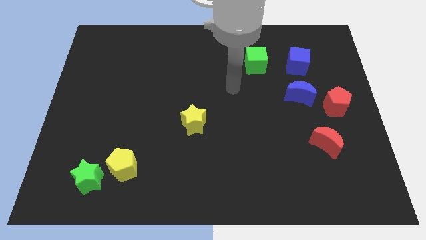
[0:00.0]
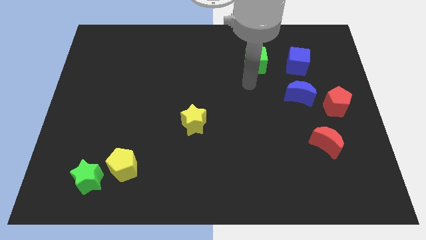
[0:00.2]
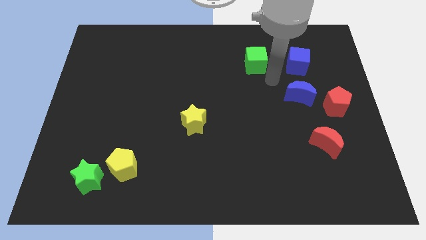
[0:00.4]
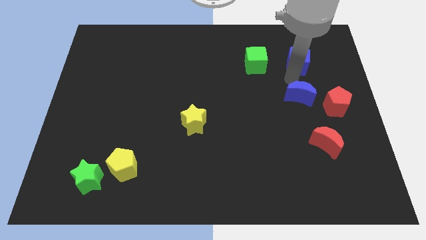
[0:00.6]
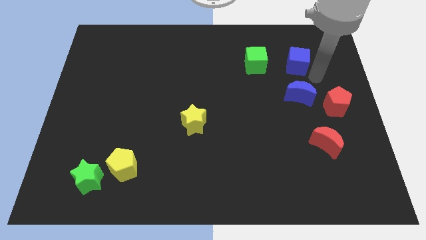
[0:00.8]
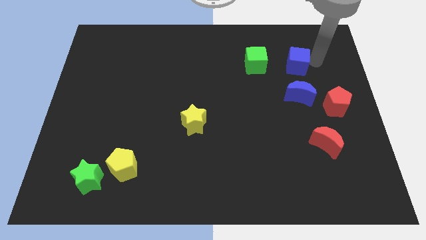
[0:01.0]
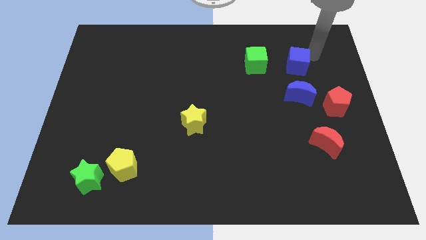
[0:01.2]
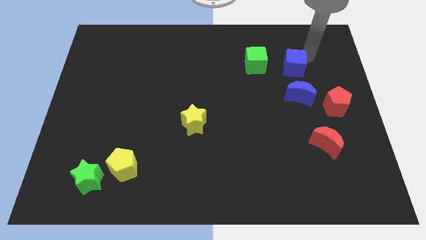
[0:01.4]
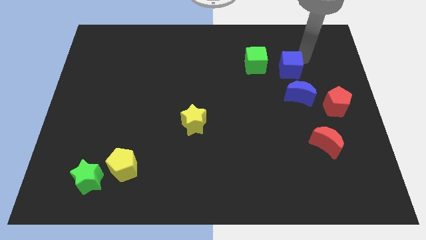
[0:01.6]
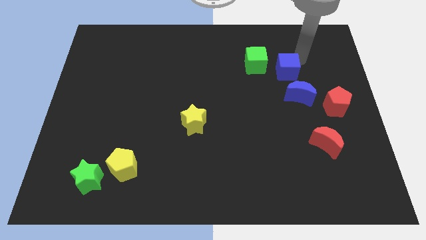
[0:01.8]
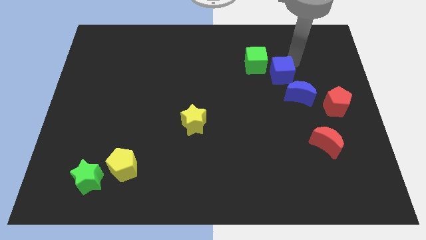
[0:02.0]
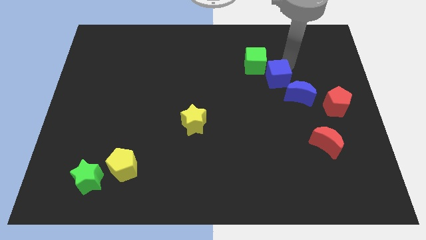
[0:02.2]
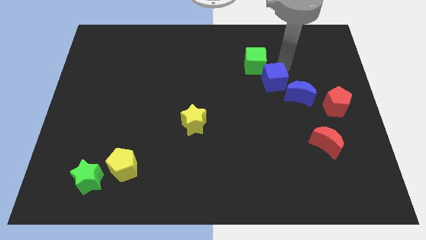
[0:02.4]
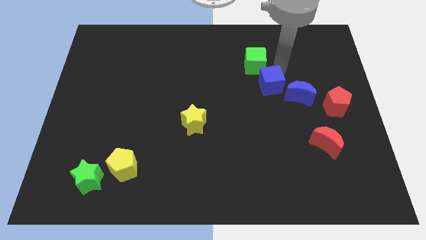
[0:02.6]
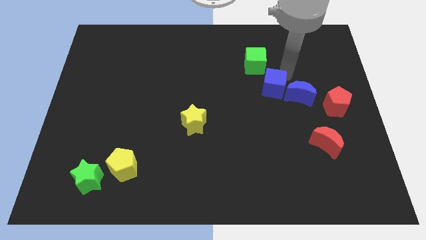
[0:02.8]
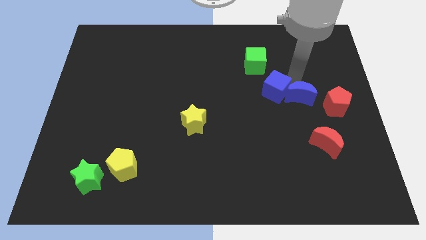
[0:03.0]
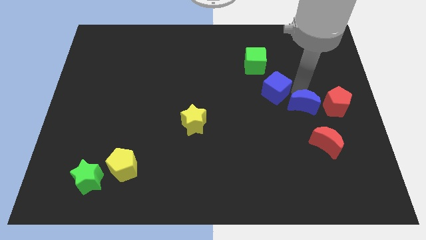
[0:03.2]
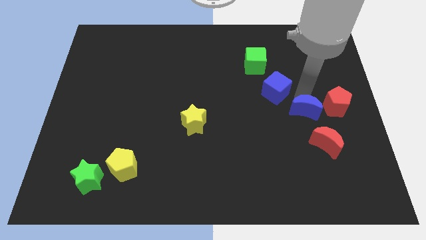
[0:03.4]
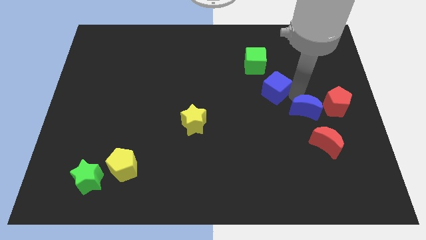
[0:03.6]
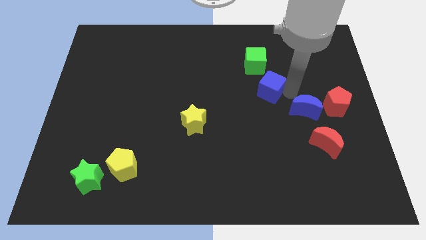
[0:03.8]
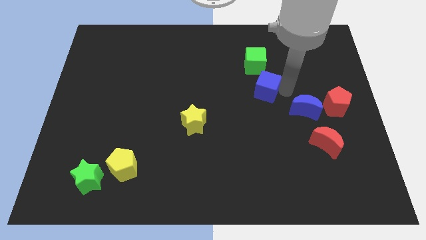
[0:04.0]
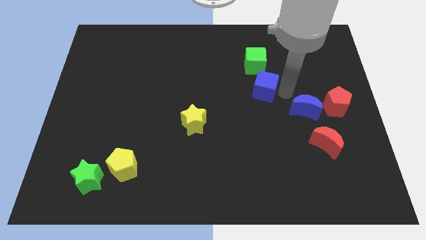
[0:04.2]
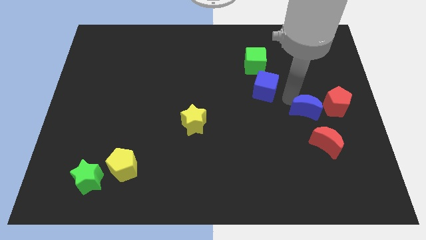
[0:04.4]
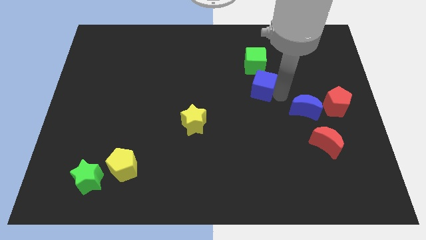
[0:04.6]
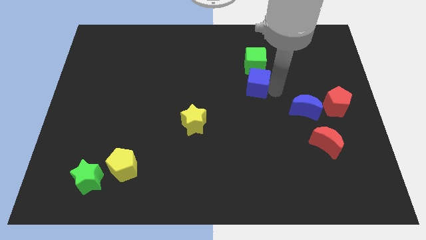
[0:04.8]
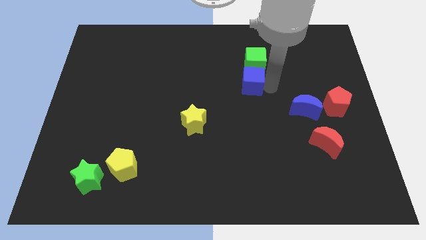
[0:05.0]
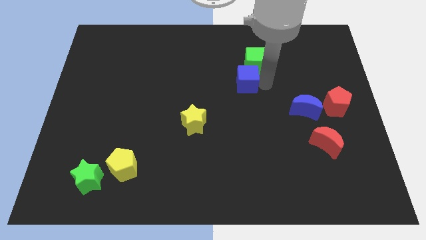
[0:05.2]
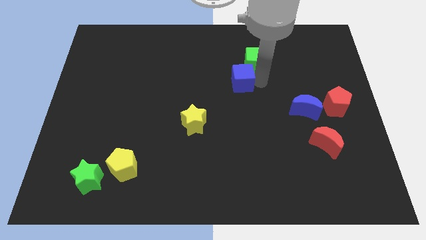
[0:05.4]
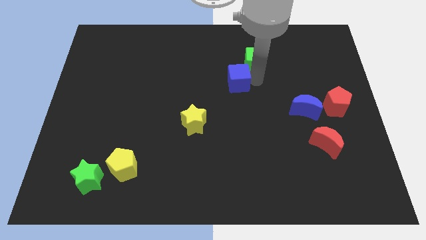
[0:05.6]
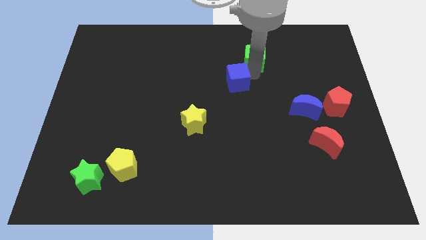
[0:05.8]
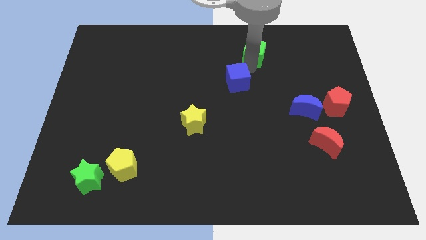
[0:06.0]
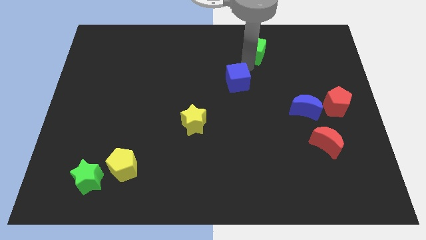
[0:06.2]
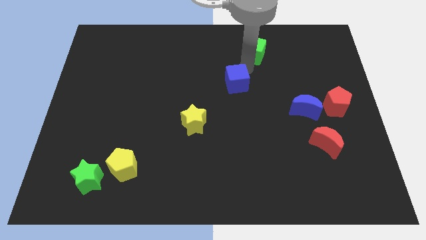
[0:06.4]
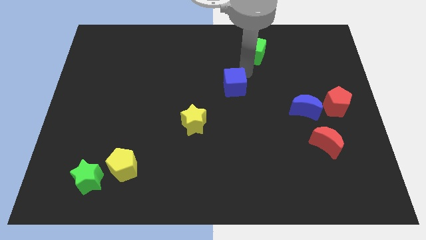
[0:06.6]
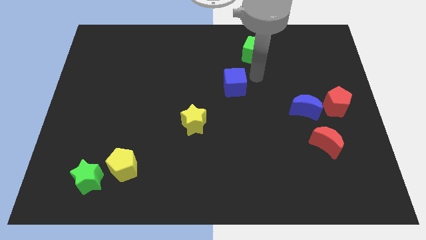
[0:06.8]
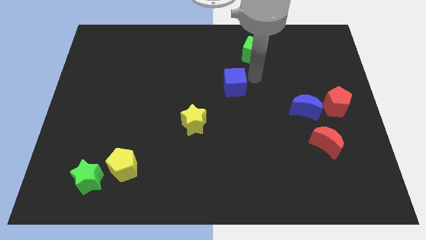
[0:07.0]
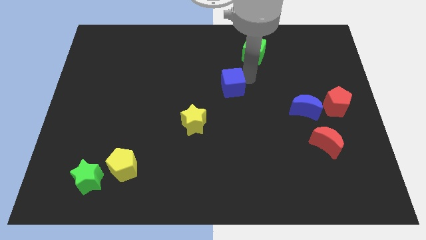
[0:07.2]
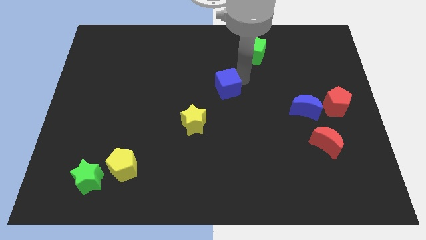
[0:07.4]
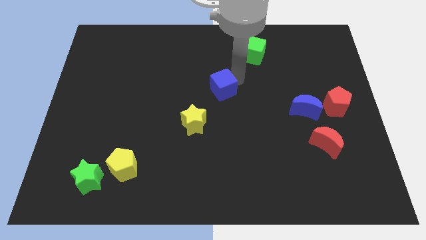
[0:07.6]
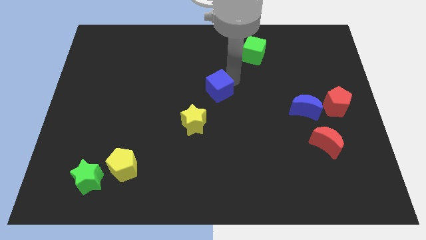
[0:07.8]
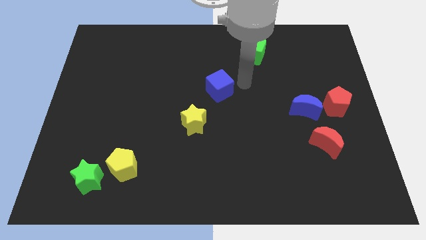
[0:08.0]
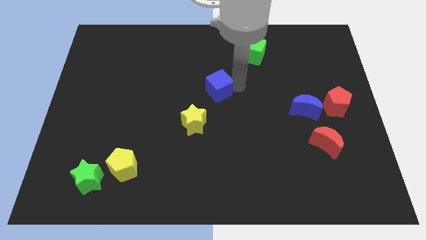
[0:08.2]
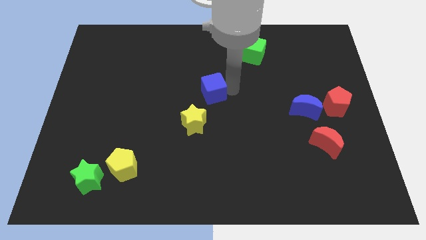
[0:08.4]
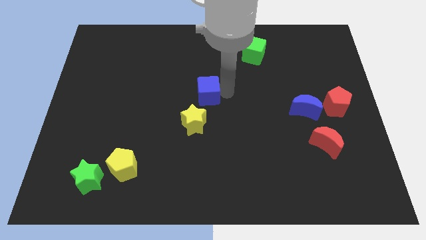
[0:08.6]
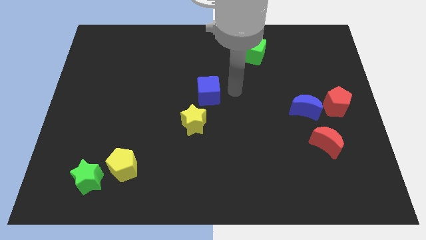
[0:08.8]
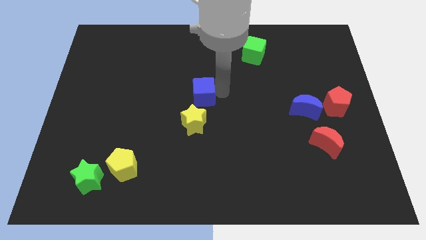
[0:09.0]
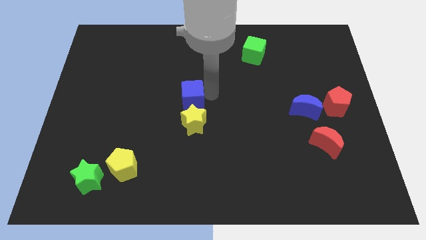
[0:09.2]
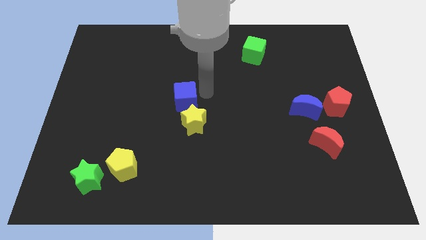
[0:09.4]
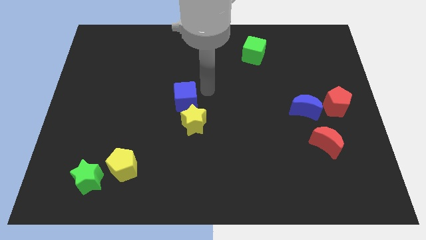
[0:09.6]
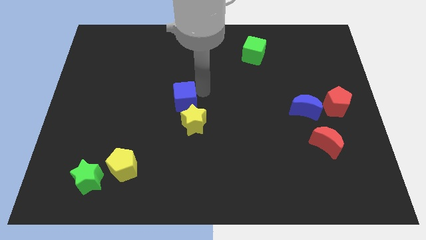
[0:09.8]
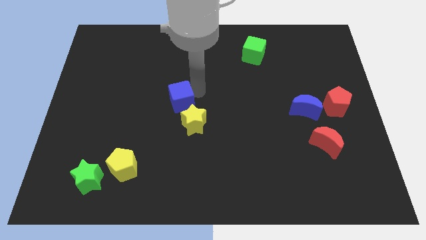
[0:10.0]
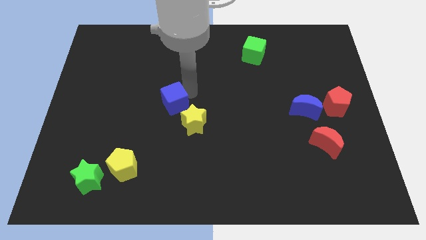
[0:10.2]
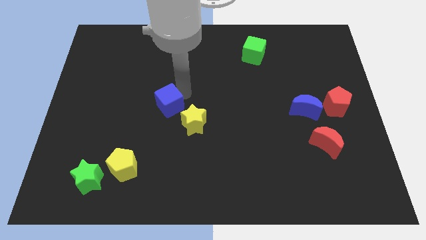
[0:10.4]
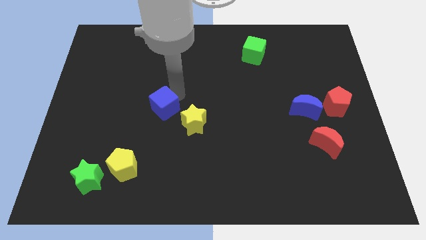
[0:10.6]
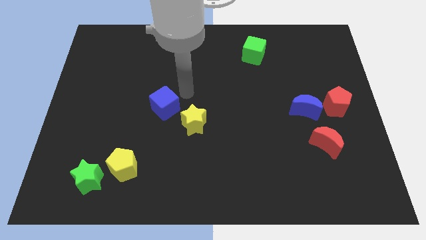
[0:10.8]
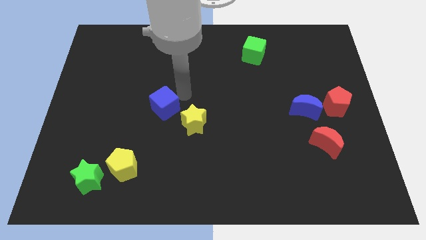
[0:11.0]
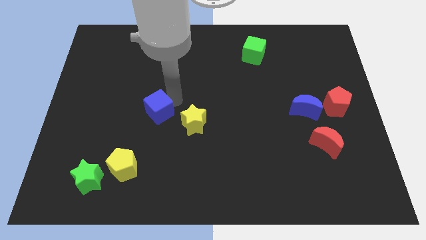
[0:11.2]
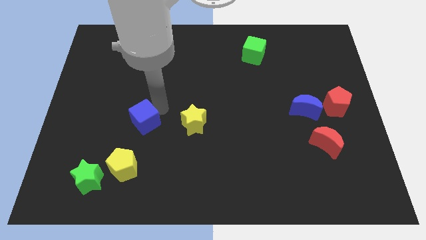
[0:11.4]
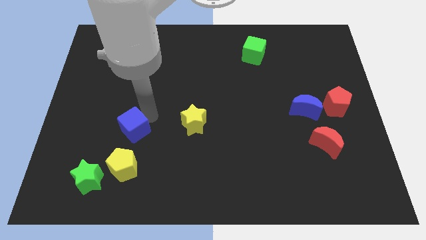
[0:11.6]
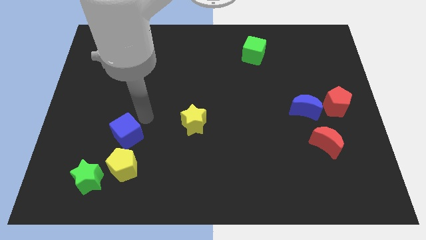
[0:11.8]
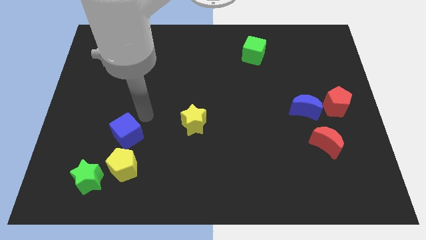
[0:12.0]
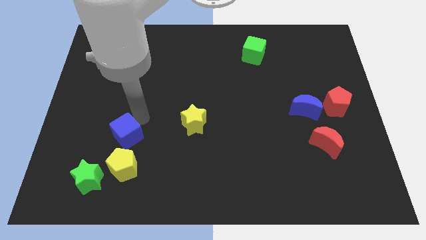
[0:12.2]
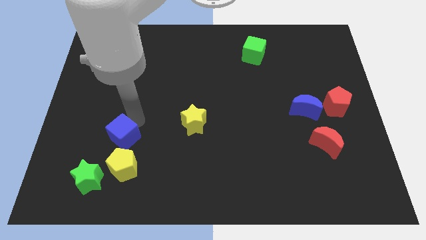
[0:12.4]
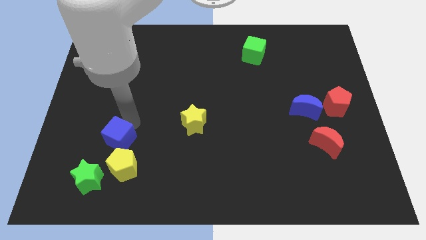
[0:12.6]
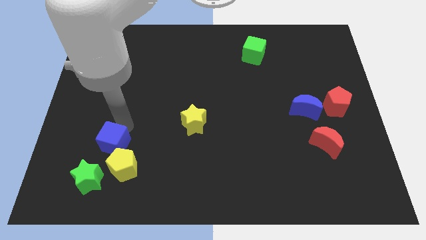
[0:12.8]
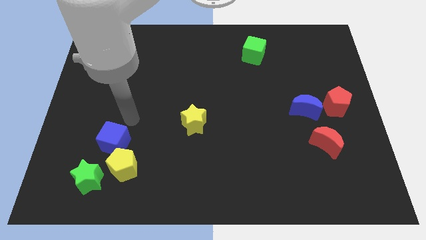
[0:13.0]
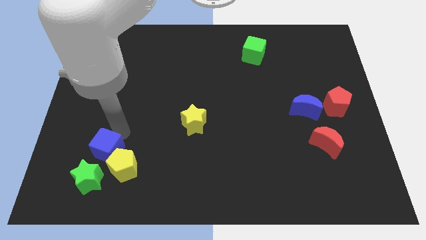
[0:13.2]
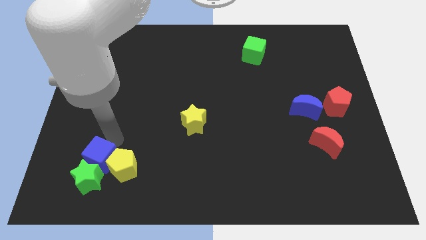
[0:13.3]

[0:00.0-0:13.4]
push the blue cube towards the green star

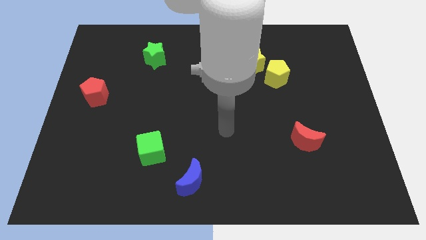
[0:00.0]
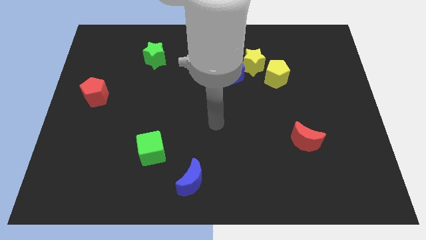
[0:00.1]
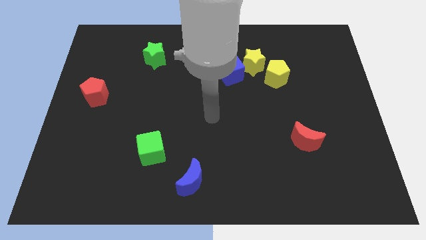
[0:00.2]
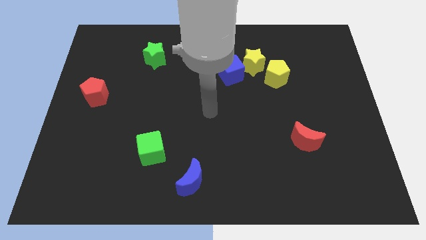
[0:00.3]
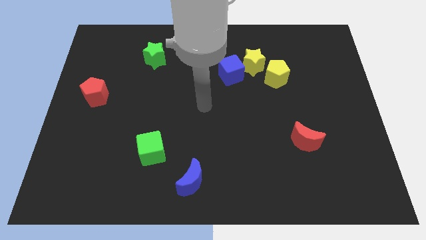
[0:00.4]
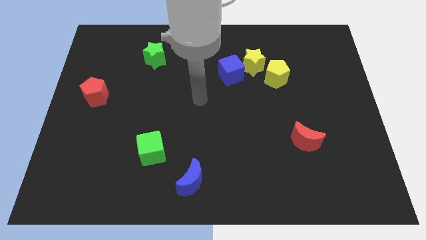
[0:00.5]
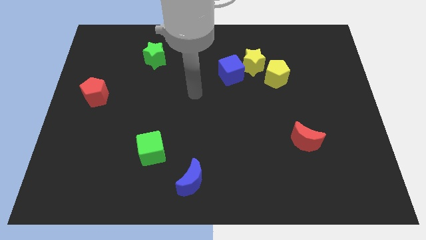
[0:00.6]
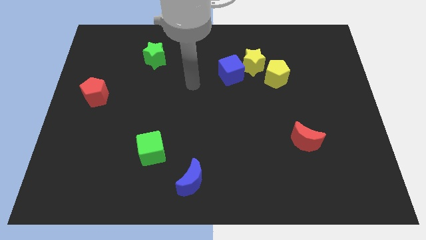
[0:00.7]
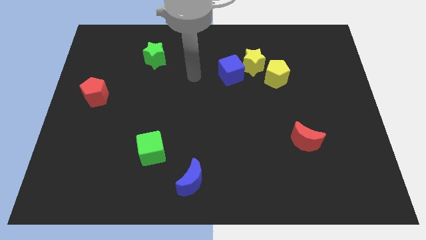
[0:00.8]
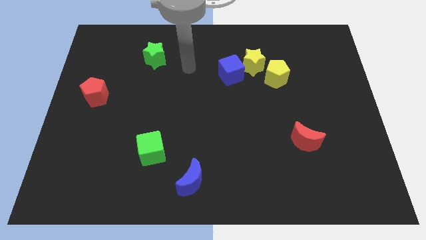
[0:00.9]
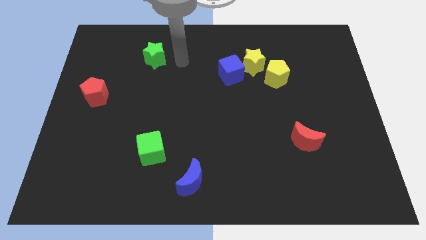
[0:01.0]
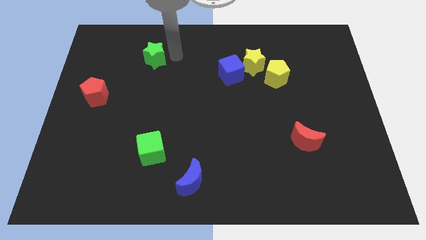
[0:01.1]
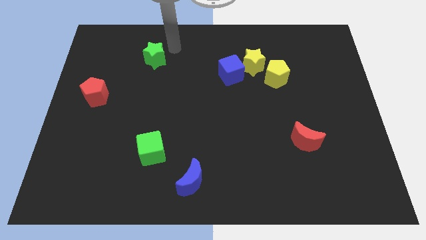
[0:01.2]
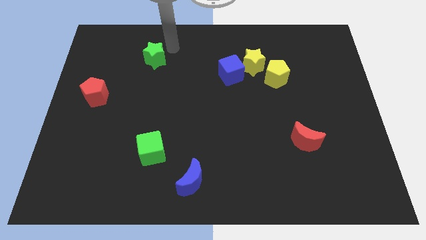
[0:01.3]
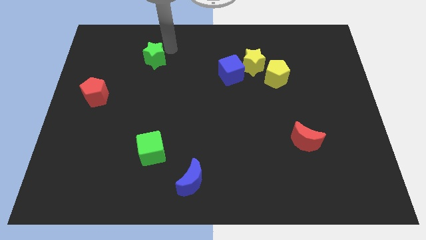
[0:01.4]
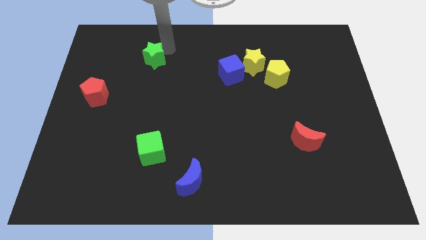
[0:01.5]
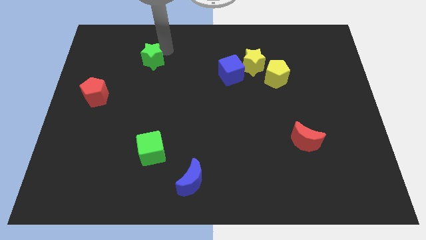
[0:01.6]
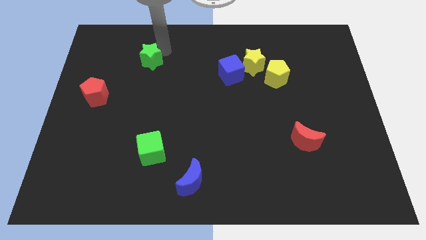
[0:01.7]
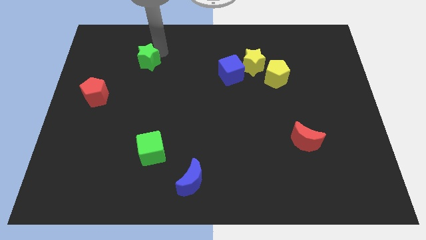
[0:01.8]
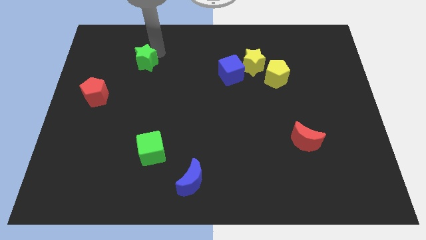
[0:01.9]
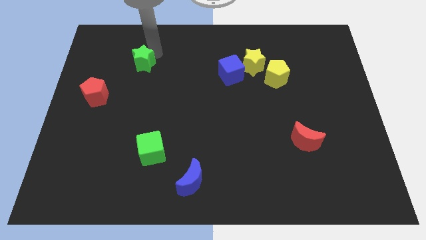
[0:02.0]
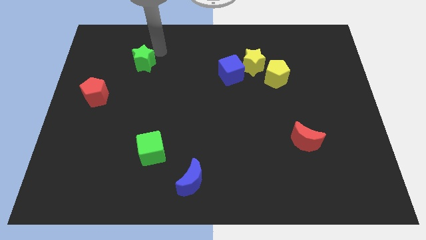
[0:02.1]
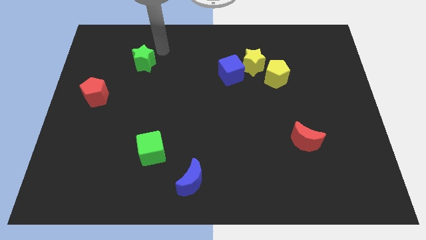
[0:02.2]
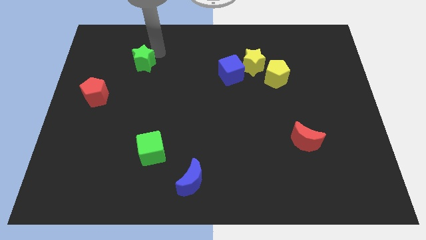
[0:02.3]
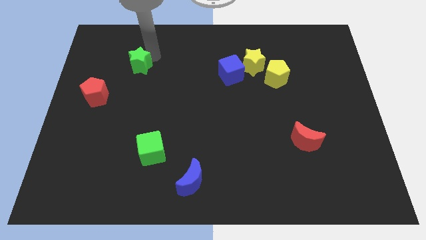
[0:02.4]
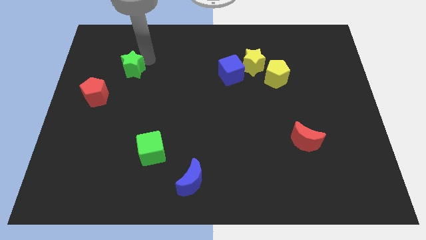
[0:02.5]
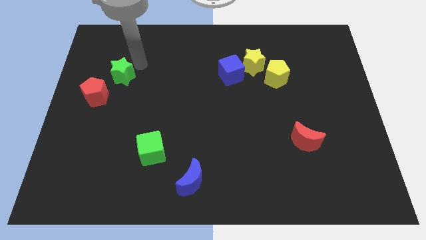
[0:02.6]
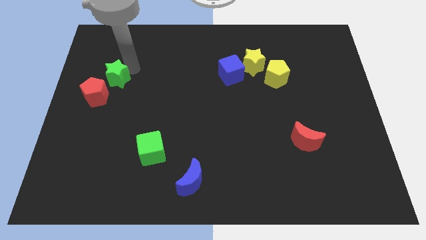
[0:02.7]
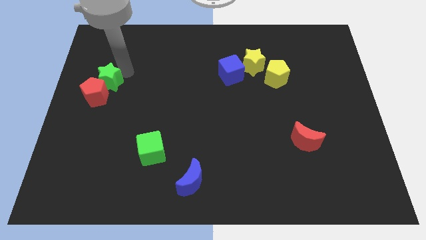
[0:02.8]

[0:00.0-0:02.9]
put the green star to the red pentagon
